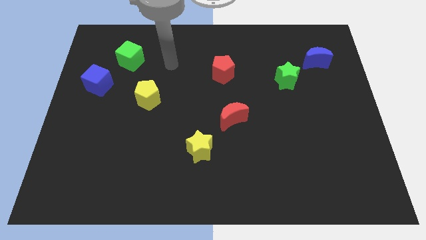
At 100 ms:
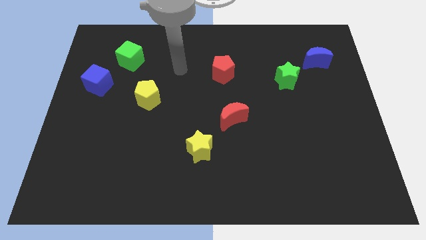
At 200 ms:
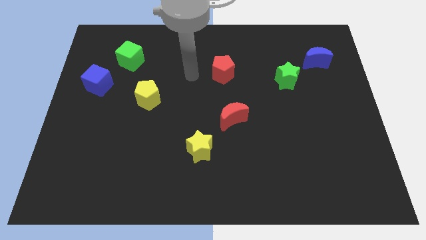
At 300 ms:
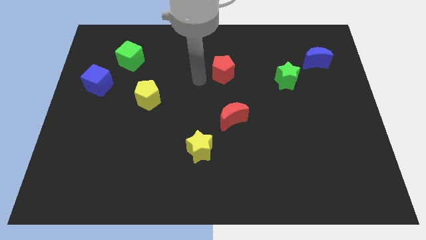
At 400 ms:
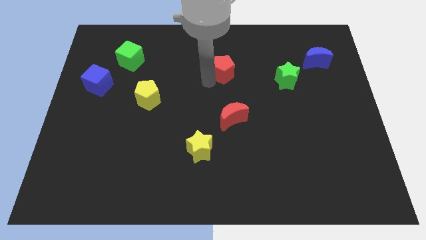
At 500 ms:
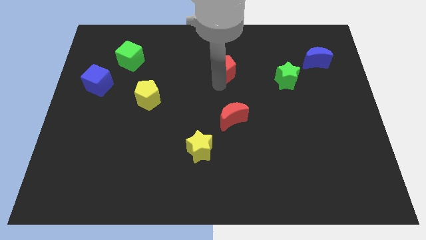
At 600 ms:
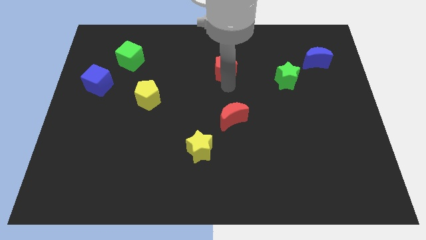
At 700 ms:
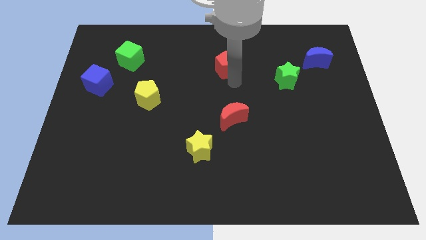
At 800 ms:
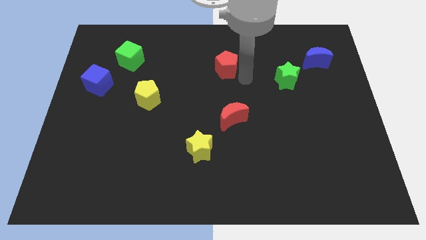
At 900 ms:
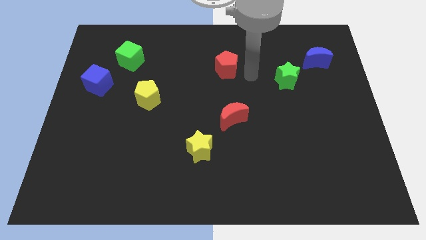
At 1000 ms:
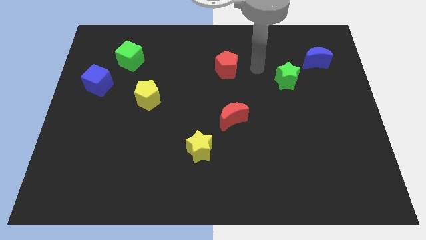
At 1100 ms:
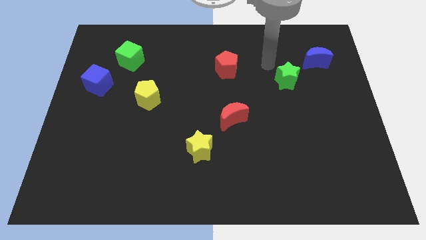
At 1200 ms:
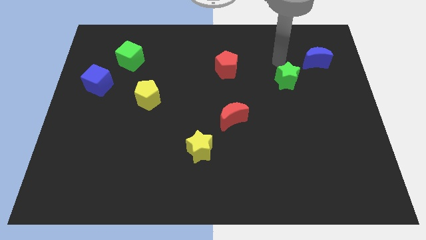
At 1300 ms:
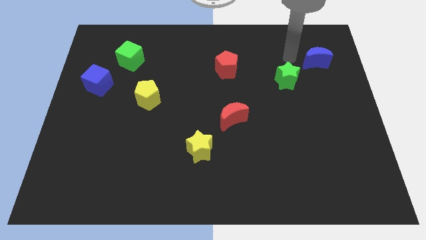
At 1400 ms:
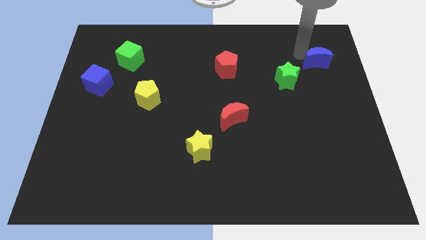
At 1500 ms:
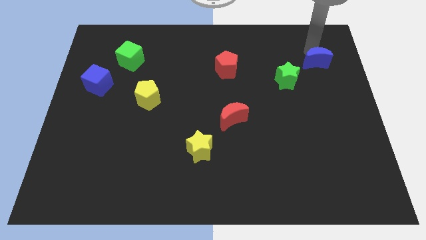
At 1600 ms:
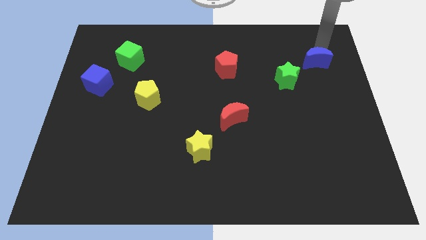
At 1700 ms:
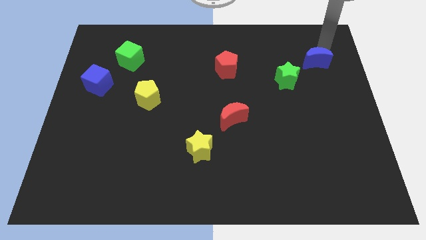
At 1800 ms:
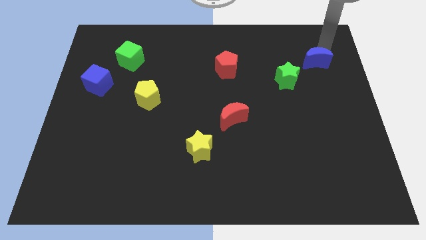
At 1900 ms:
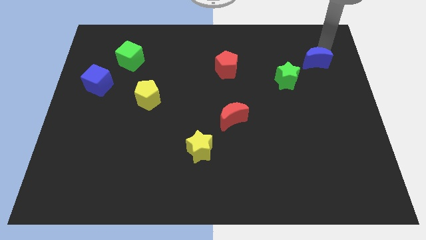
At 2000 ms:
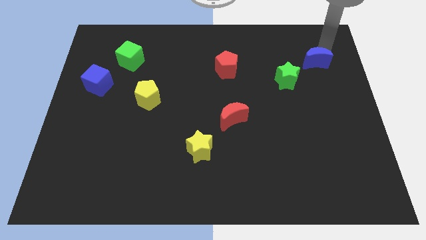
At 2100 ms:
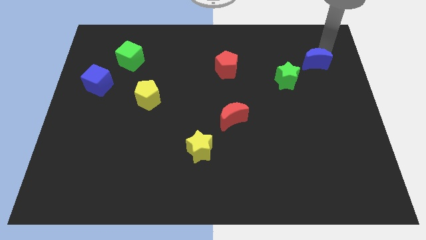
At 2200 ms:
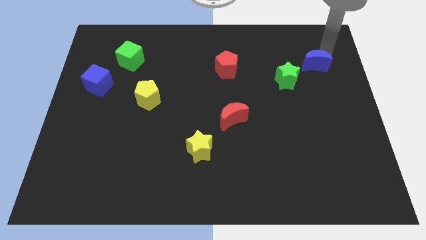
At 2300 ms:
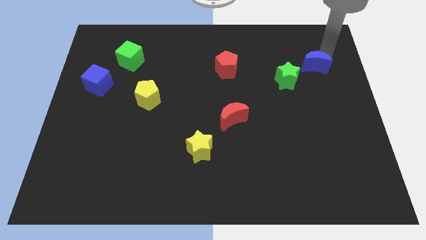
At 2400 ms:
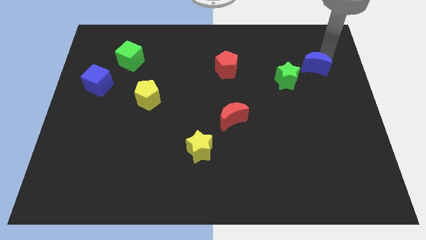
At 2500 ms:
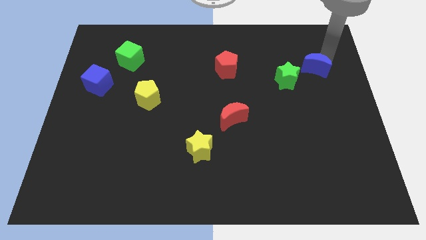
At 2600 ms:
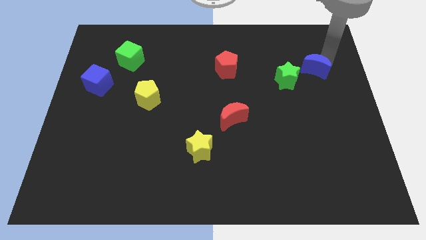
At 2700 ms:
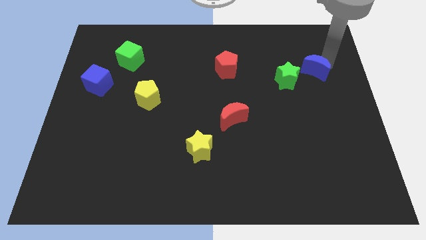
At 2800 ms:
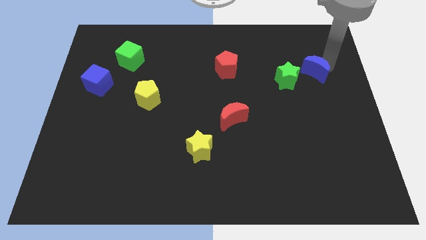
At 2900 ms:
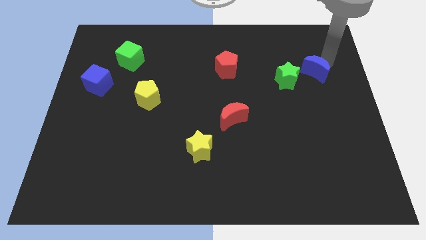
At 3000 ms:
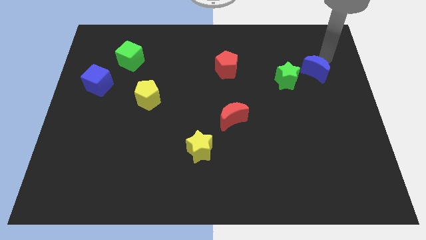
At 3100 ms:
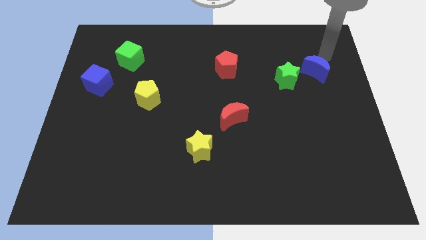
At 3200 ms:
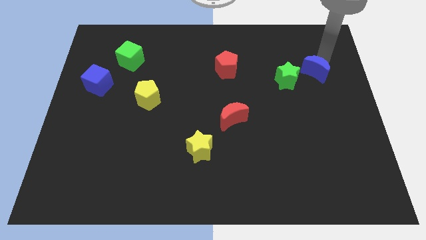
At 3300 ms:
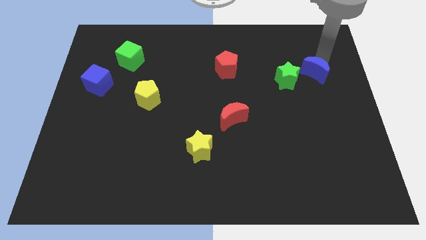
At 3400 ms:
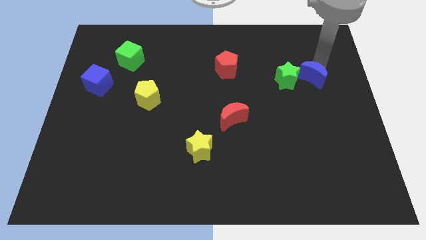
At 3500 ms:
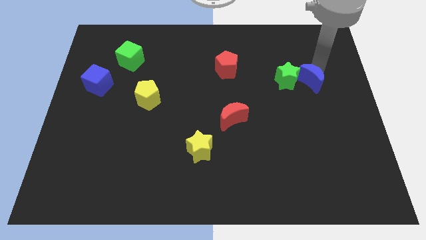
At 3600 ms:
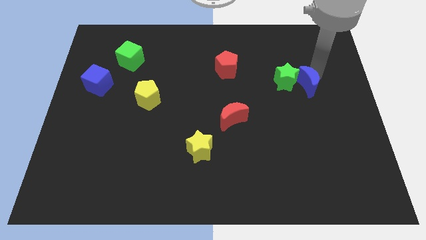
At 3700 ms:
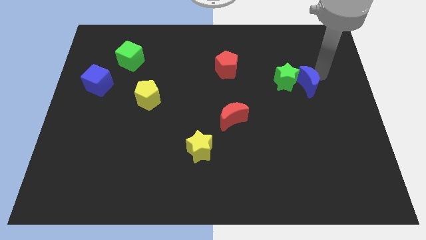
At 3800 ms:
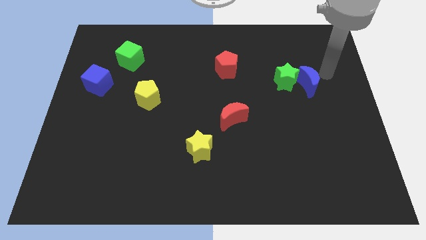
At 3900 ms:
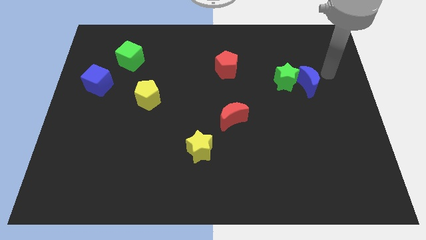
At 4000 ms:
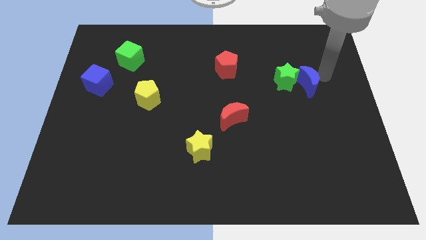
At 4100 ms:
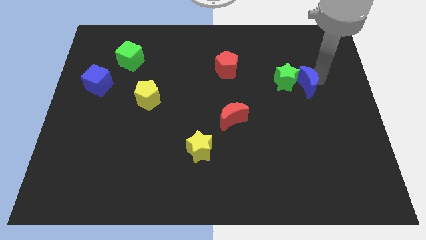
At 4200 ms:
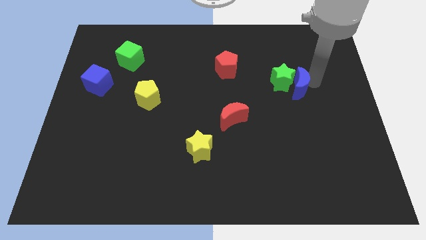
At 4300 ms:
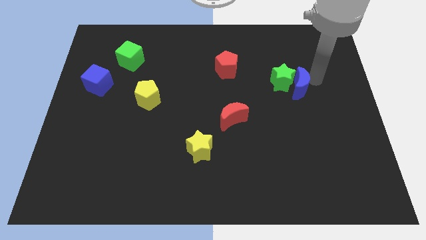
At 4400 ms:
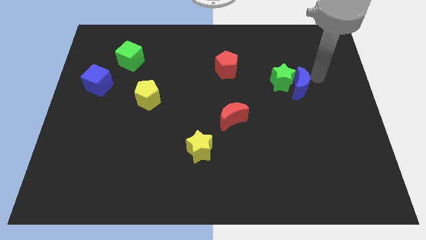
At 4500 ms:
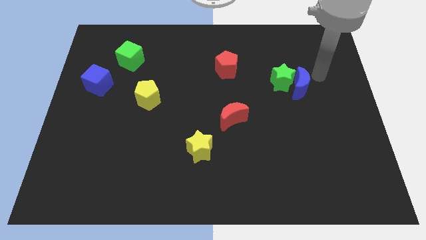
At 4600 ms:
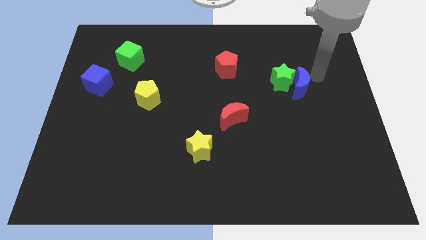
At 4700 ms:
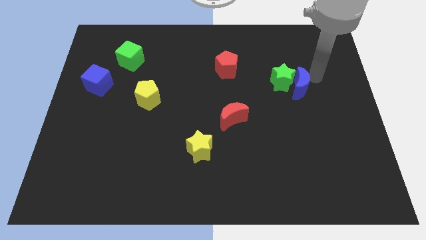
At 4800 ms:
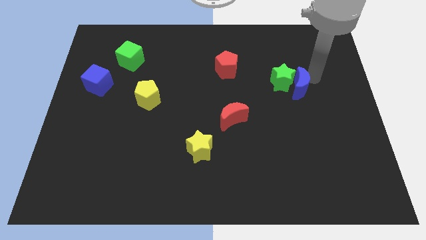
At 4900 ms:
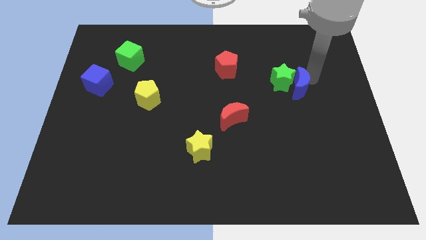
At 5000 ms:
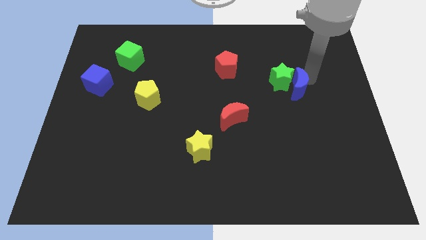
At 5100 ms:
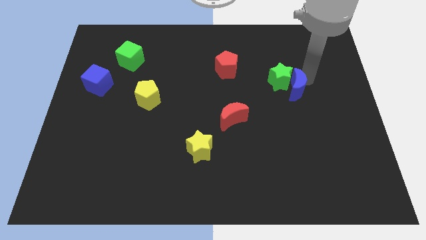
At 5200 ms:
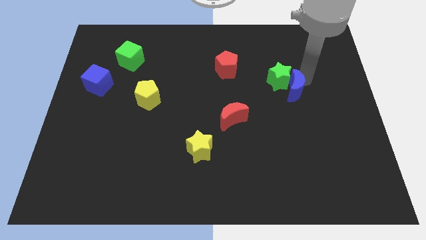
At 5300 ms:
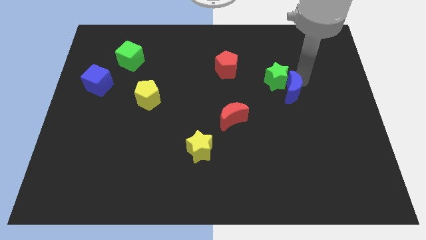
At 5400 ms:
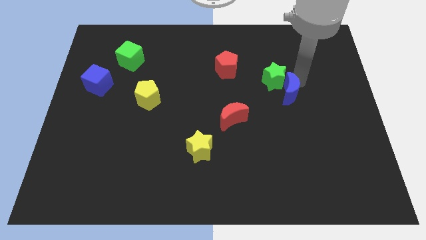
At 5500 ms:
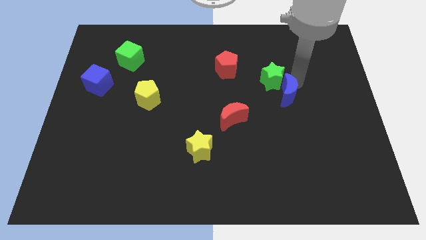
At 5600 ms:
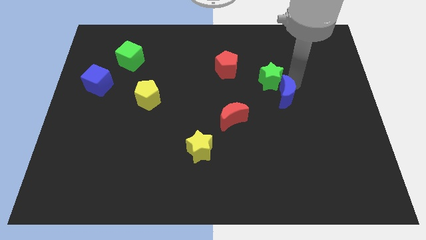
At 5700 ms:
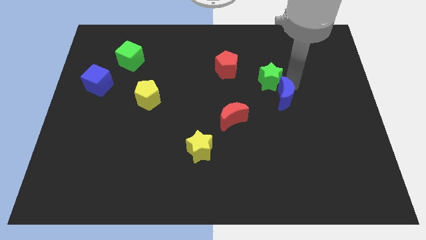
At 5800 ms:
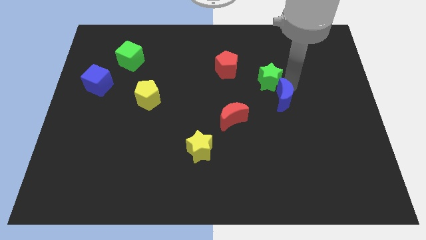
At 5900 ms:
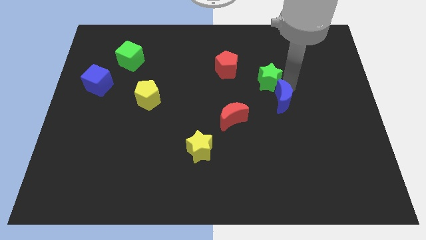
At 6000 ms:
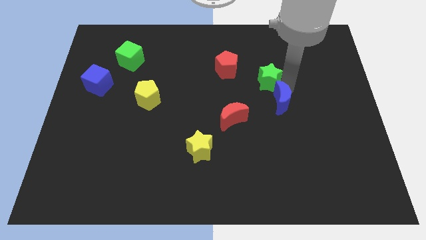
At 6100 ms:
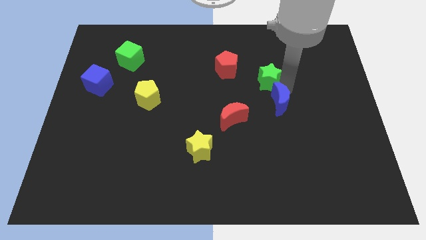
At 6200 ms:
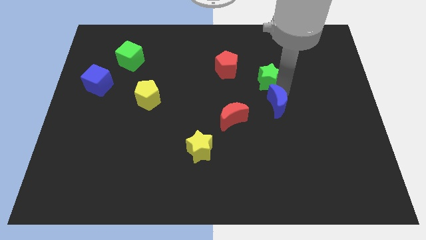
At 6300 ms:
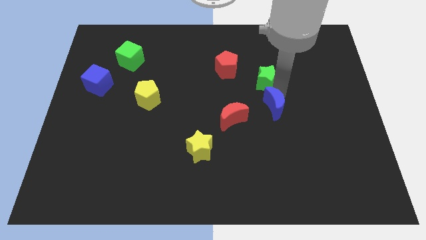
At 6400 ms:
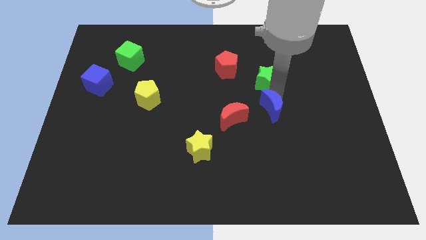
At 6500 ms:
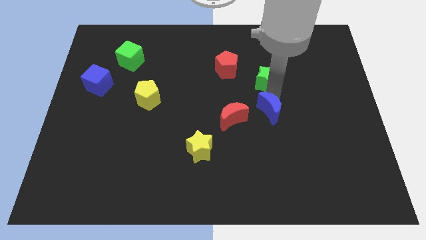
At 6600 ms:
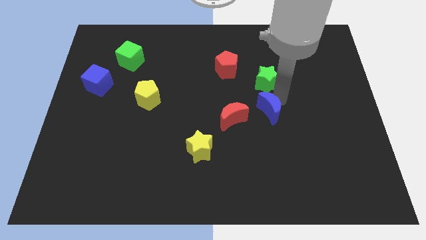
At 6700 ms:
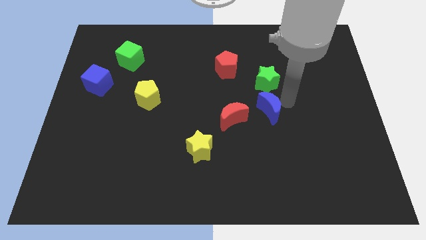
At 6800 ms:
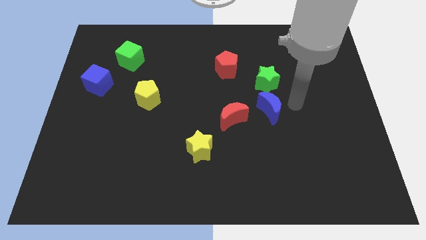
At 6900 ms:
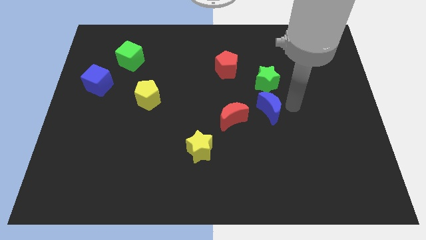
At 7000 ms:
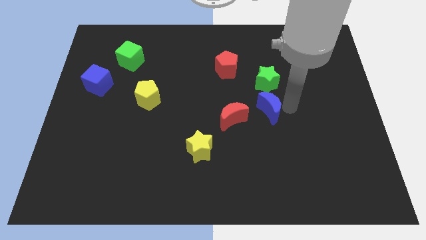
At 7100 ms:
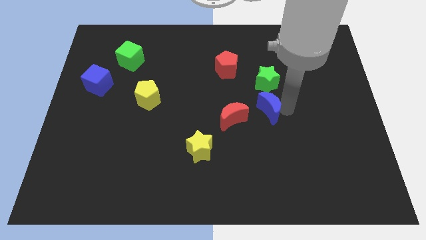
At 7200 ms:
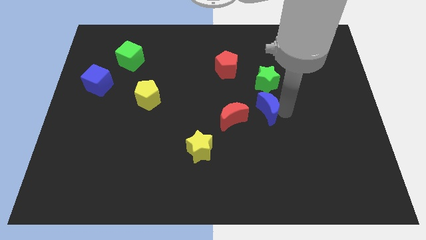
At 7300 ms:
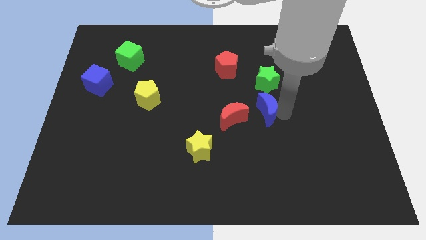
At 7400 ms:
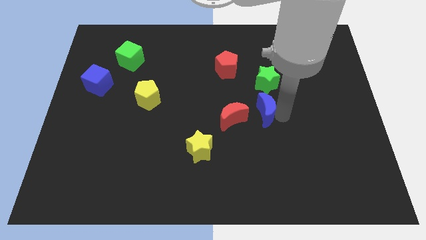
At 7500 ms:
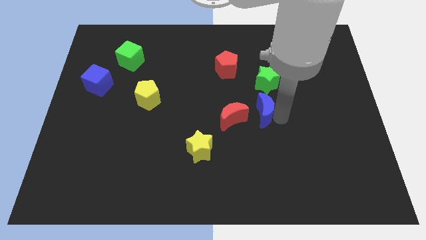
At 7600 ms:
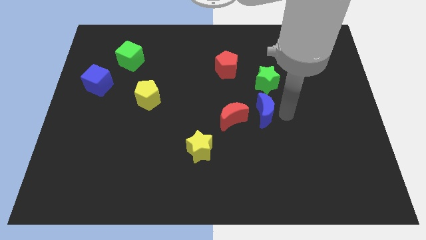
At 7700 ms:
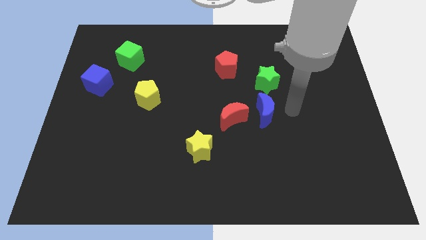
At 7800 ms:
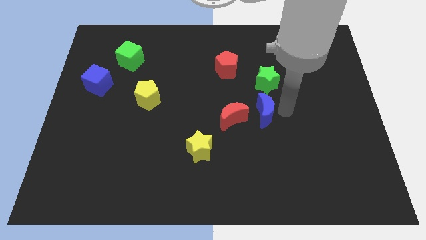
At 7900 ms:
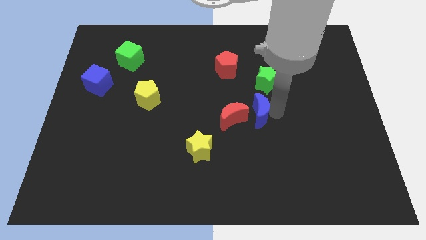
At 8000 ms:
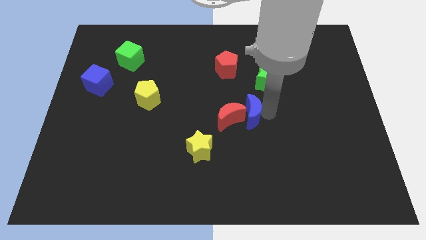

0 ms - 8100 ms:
put the blue moon next to the red moon
